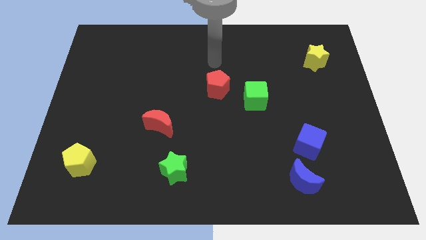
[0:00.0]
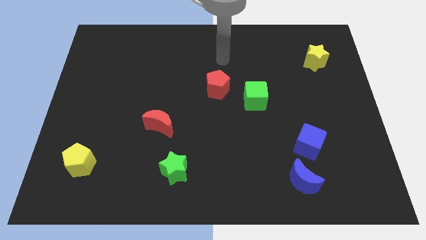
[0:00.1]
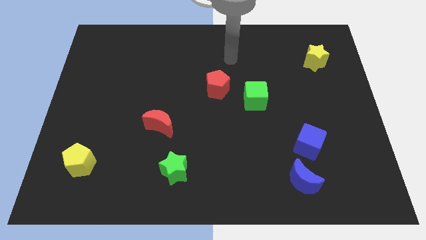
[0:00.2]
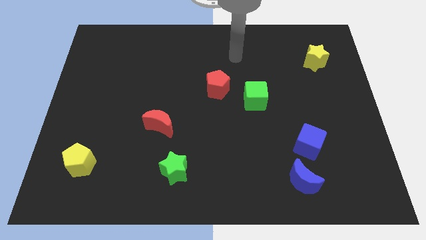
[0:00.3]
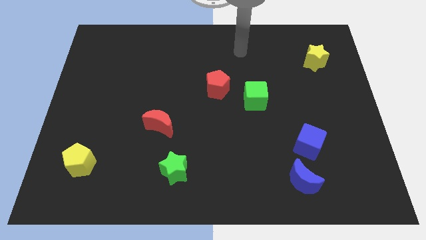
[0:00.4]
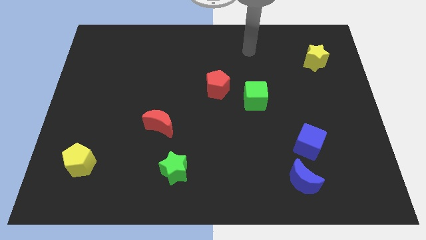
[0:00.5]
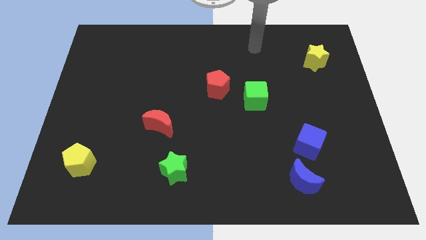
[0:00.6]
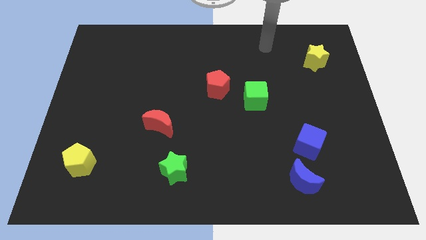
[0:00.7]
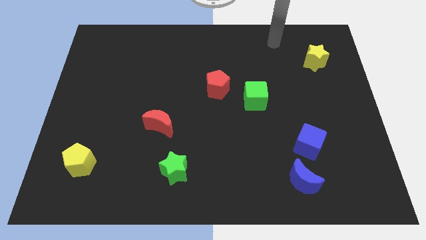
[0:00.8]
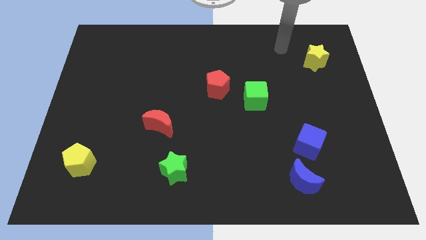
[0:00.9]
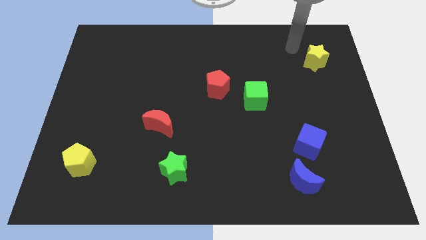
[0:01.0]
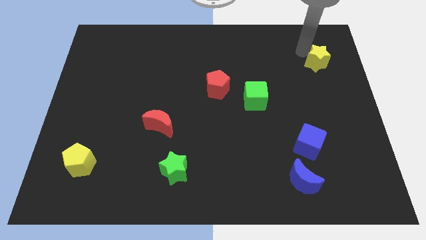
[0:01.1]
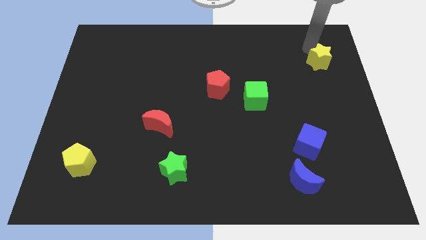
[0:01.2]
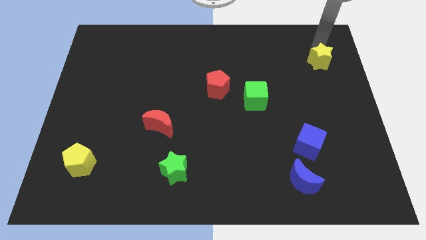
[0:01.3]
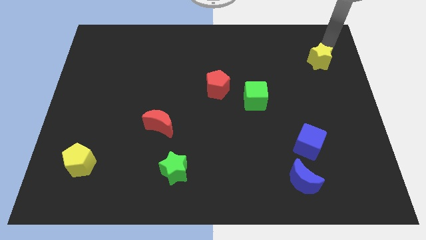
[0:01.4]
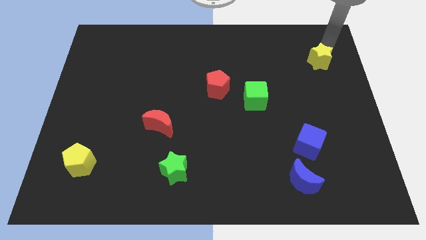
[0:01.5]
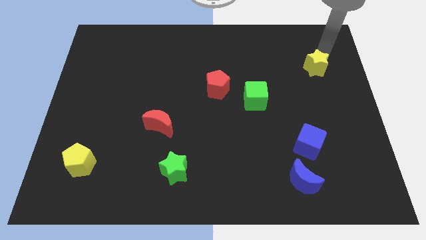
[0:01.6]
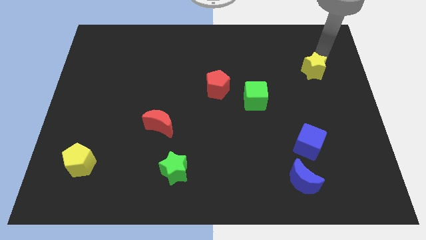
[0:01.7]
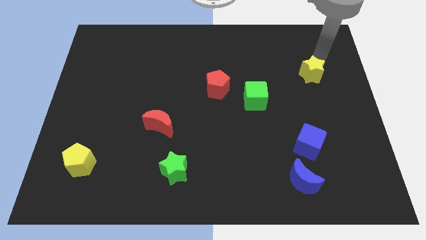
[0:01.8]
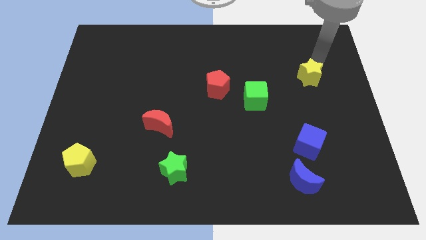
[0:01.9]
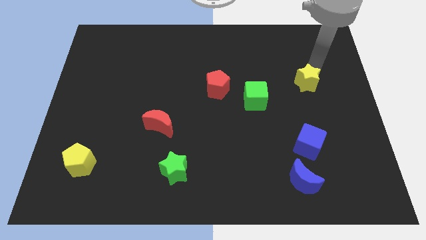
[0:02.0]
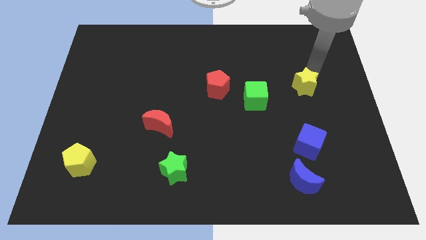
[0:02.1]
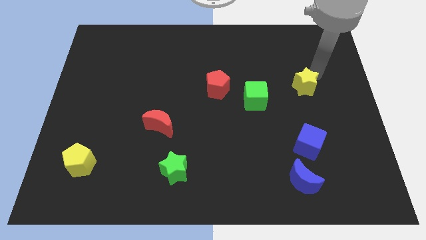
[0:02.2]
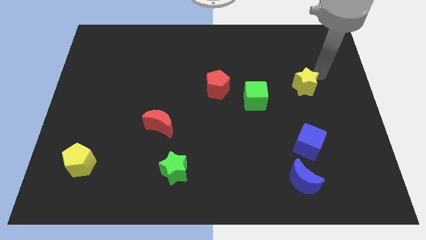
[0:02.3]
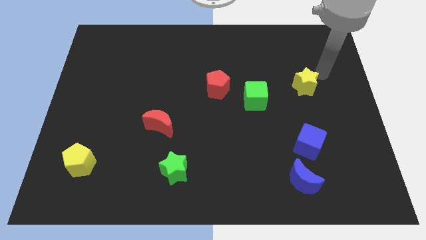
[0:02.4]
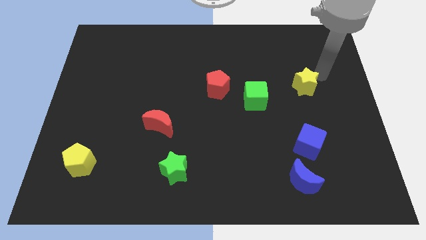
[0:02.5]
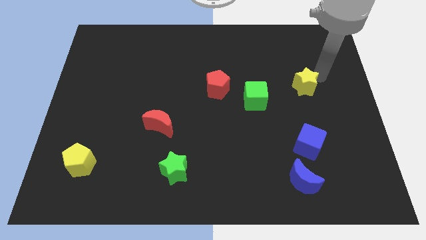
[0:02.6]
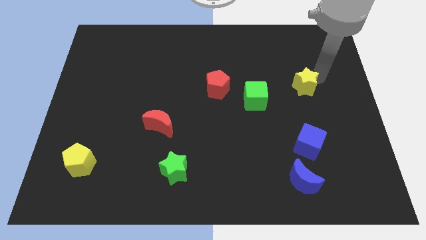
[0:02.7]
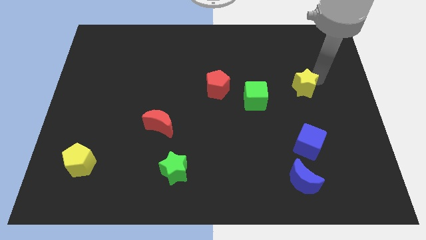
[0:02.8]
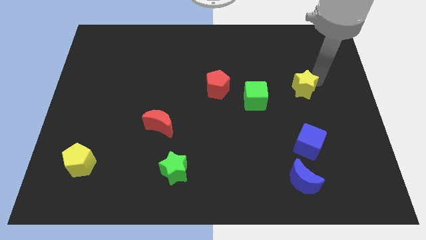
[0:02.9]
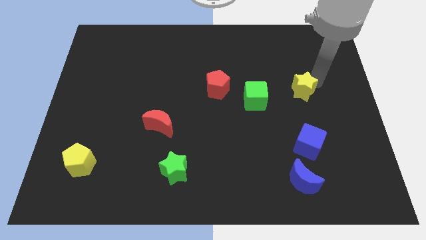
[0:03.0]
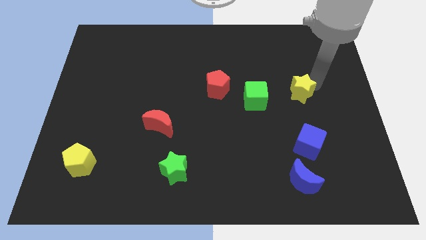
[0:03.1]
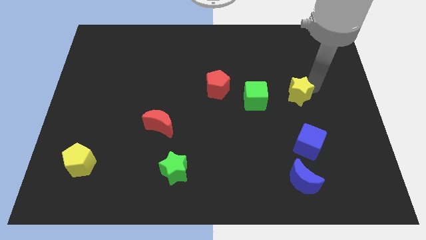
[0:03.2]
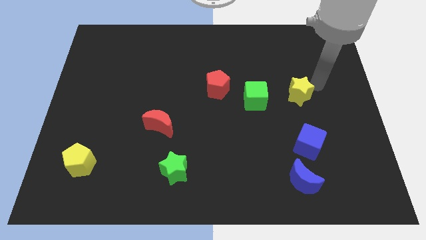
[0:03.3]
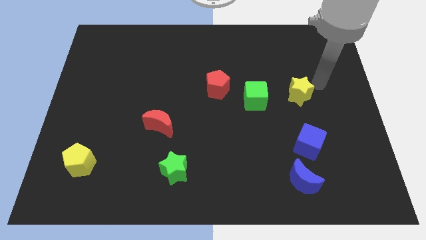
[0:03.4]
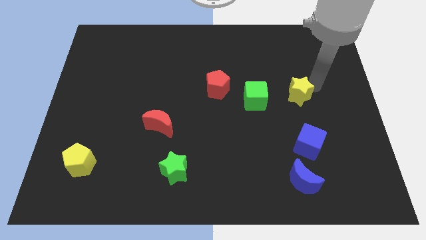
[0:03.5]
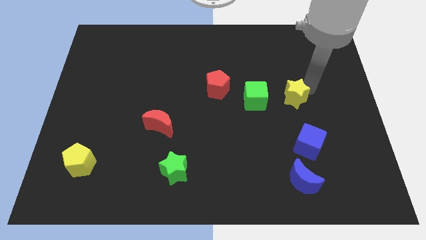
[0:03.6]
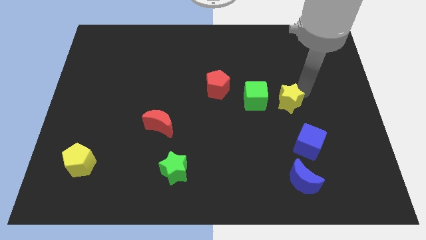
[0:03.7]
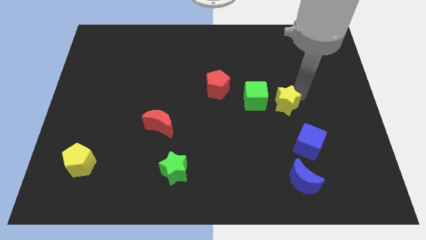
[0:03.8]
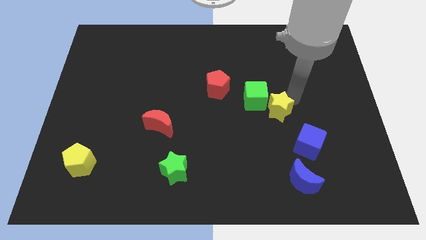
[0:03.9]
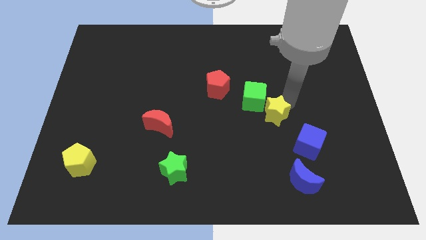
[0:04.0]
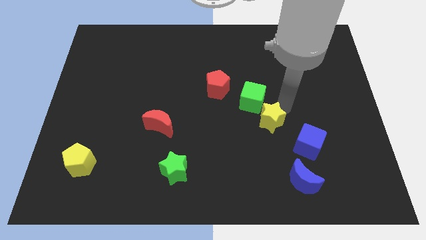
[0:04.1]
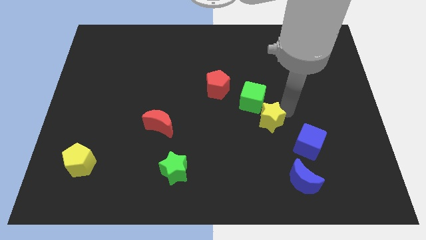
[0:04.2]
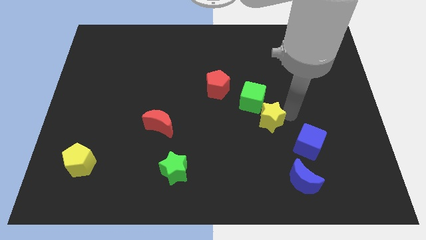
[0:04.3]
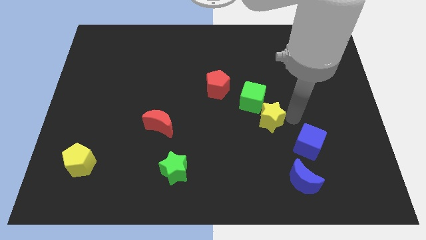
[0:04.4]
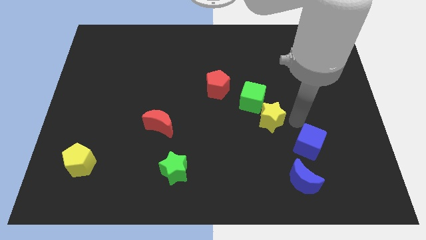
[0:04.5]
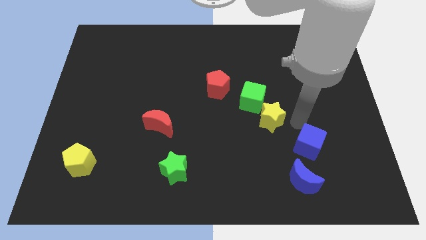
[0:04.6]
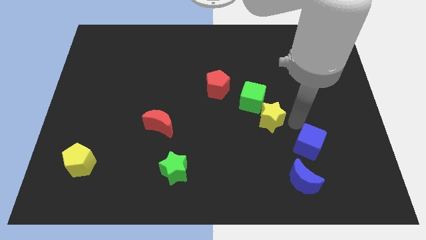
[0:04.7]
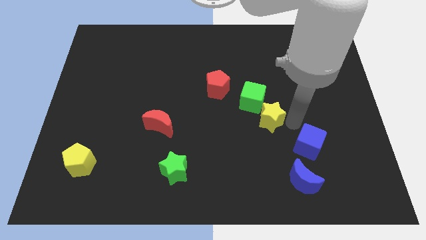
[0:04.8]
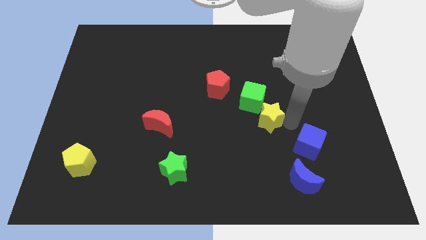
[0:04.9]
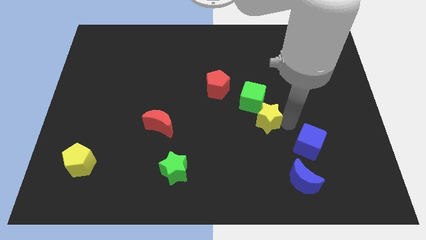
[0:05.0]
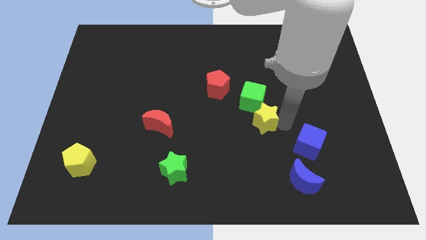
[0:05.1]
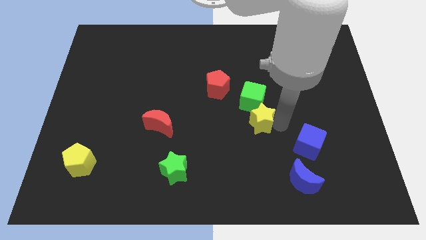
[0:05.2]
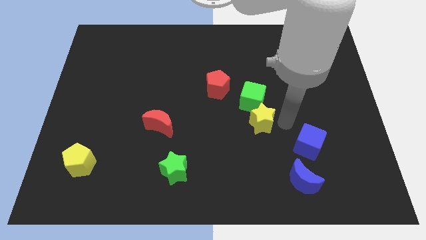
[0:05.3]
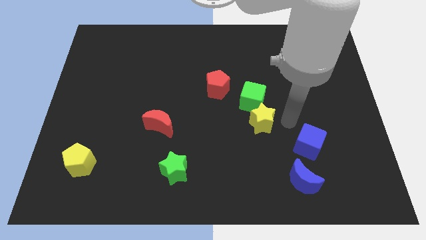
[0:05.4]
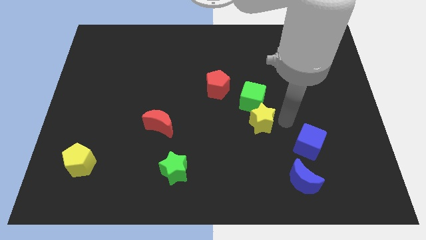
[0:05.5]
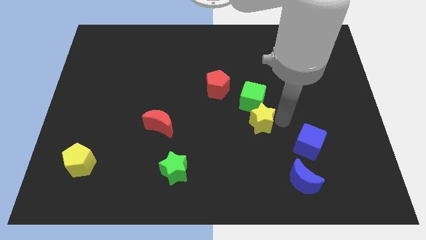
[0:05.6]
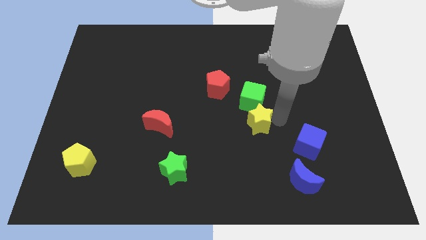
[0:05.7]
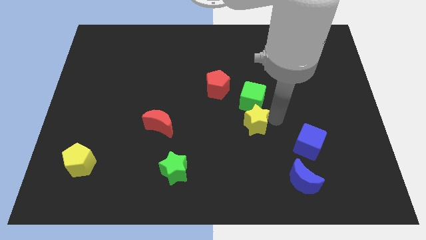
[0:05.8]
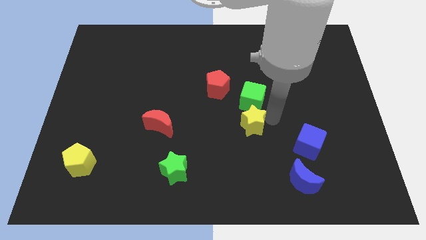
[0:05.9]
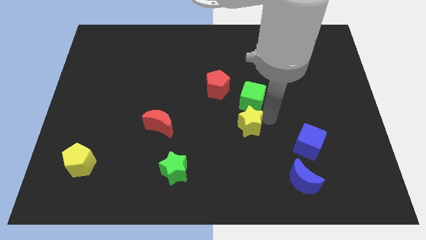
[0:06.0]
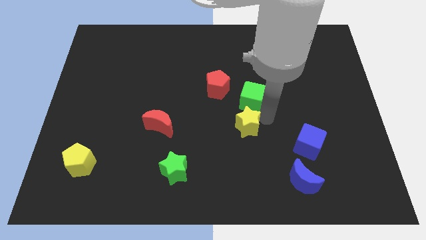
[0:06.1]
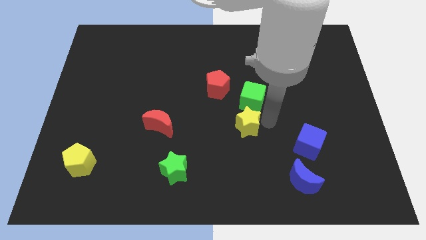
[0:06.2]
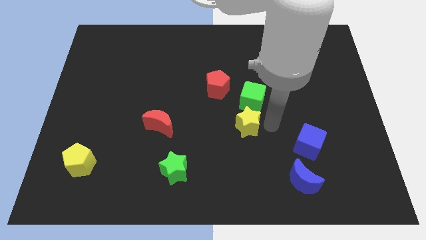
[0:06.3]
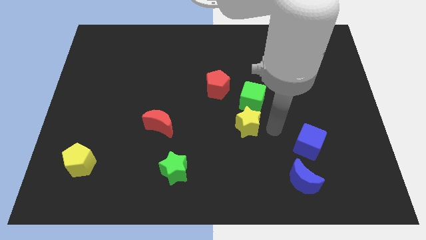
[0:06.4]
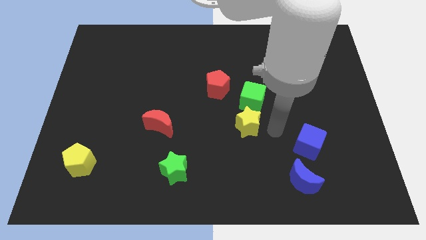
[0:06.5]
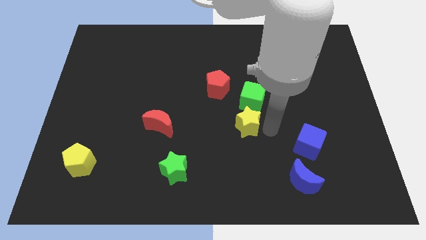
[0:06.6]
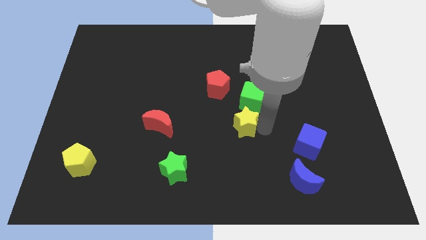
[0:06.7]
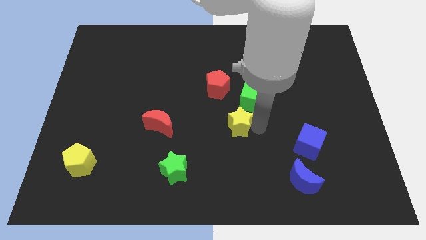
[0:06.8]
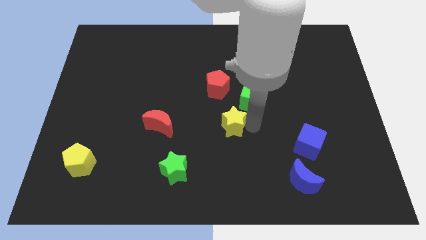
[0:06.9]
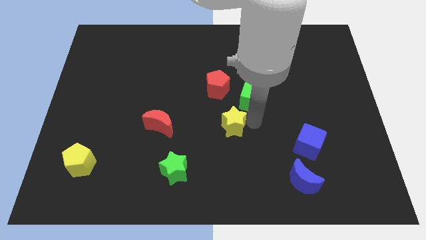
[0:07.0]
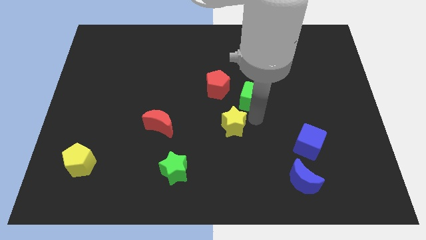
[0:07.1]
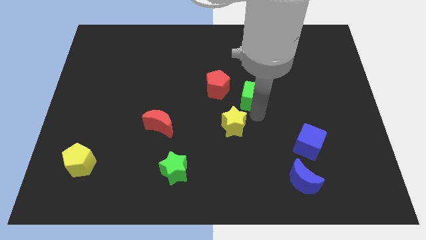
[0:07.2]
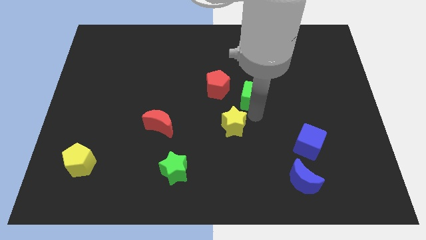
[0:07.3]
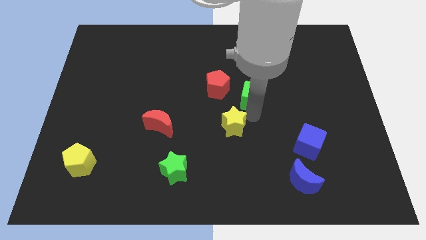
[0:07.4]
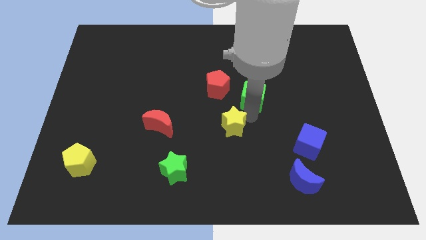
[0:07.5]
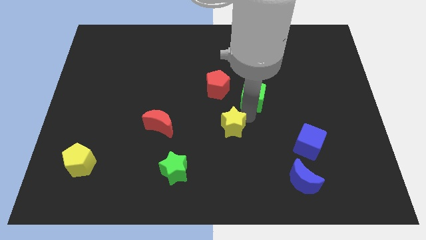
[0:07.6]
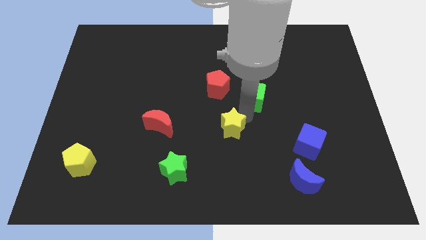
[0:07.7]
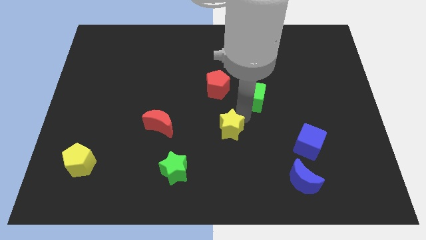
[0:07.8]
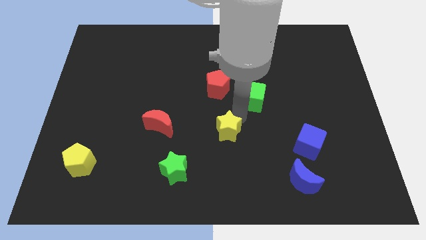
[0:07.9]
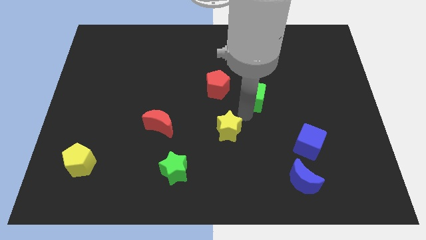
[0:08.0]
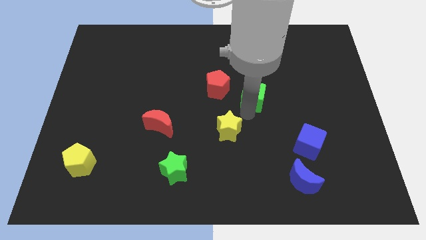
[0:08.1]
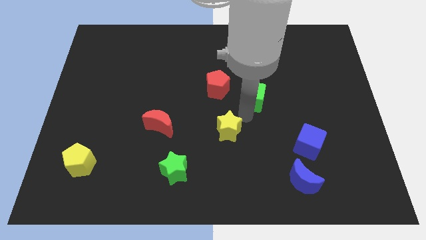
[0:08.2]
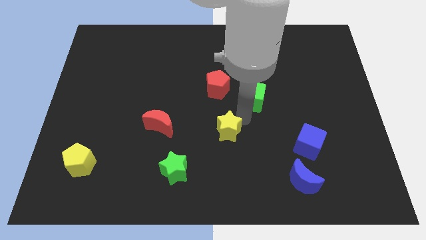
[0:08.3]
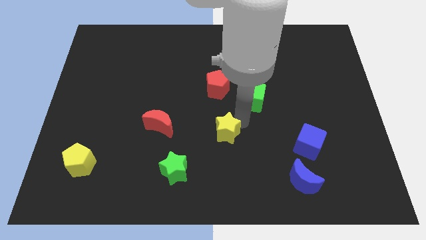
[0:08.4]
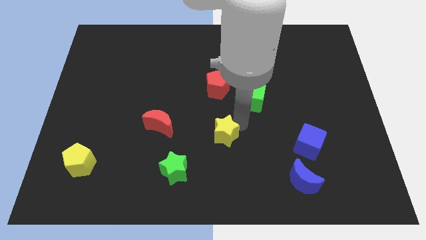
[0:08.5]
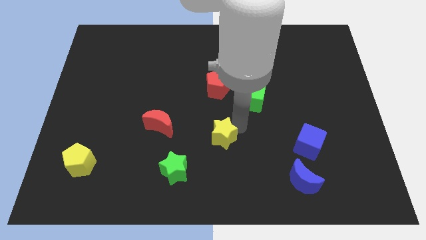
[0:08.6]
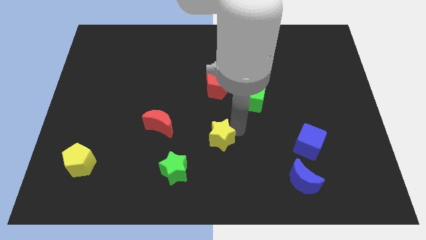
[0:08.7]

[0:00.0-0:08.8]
move the yellow star to the top right side of the green star
